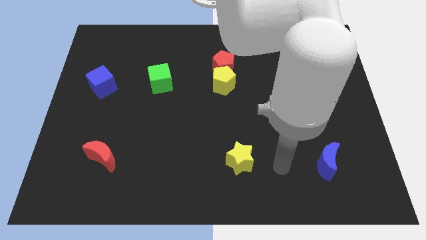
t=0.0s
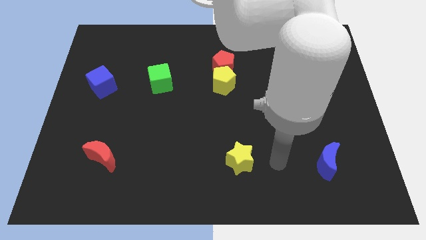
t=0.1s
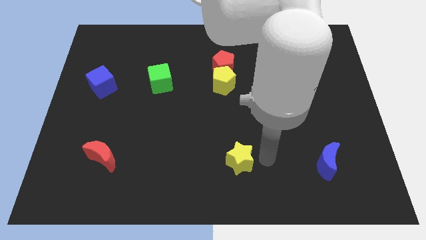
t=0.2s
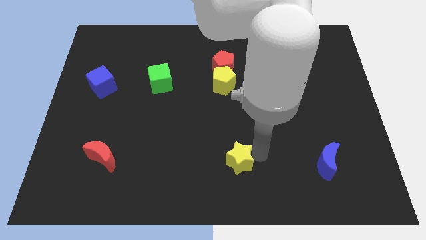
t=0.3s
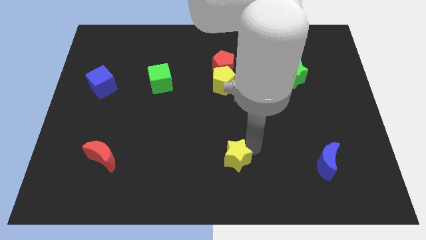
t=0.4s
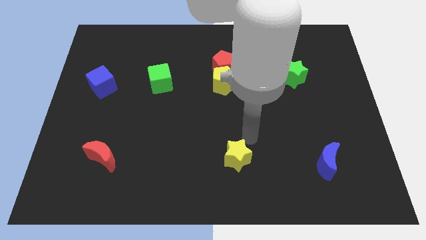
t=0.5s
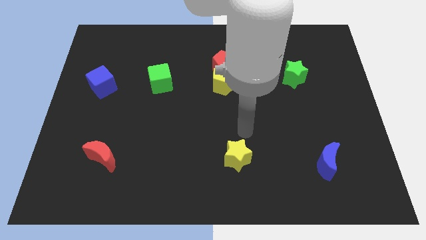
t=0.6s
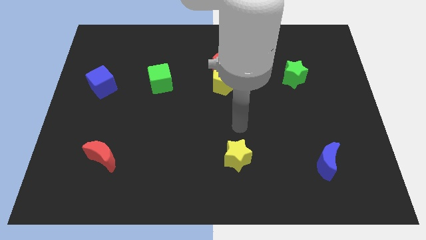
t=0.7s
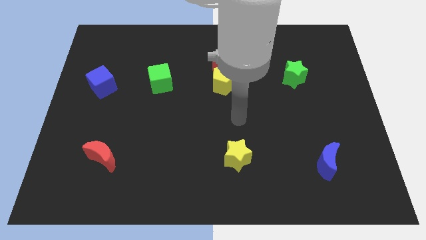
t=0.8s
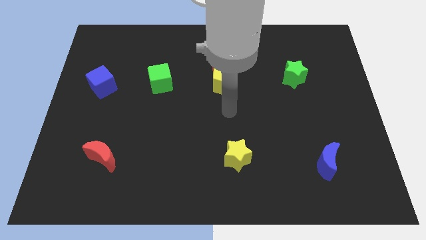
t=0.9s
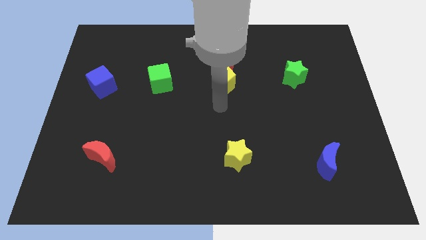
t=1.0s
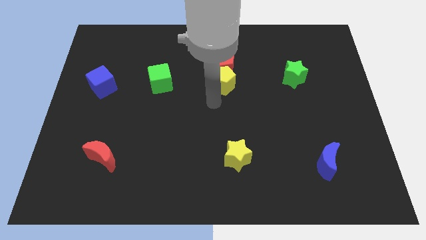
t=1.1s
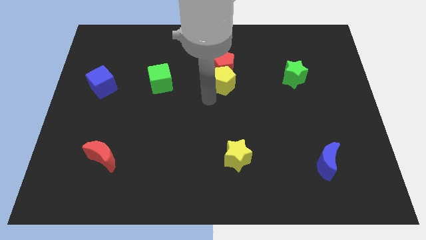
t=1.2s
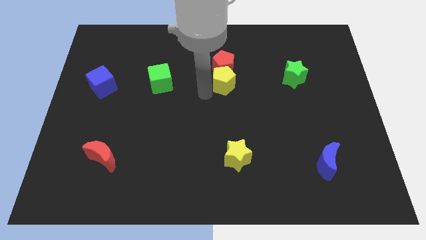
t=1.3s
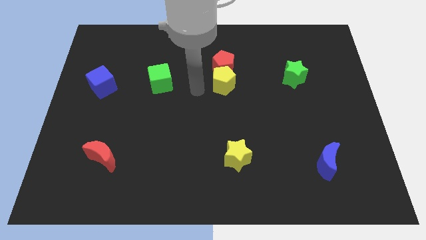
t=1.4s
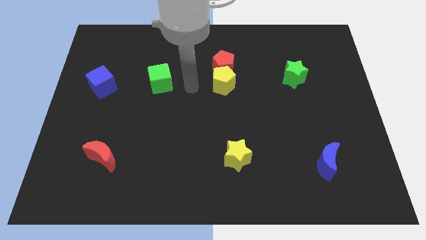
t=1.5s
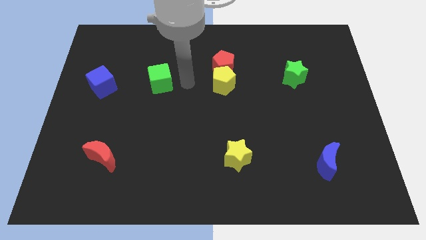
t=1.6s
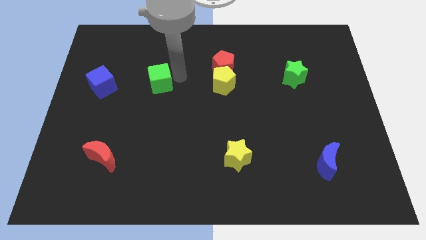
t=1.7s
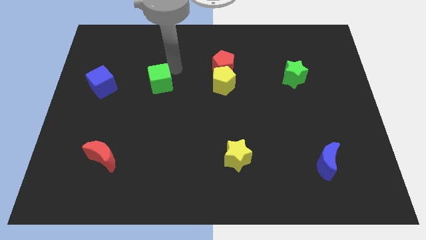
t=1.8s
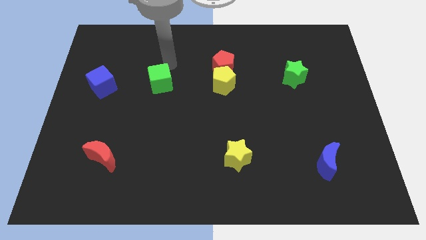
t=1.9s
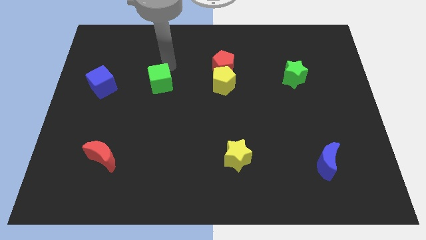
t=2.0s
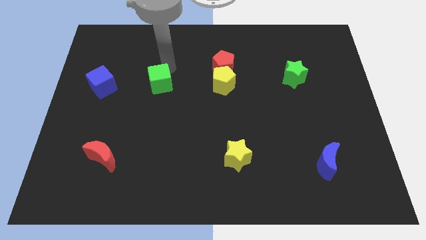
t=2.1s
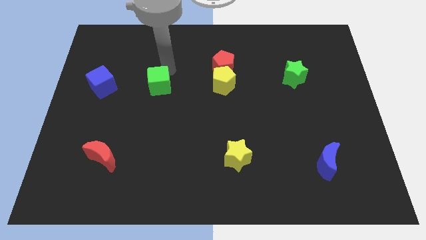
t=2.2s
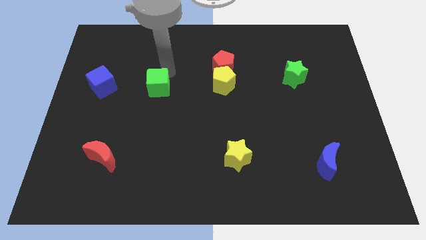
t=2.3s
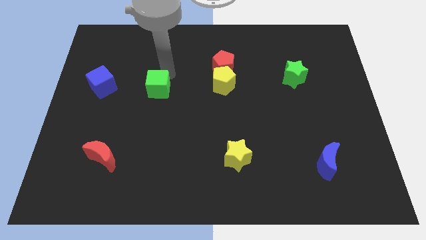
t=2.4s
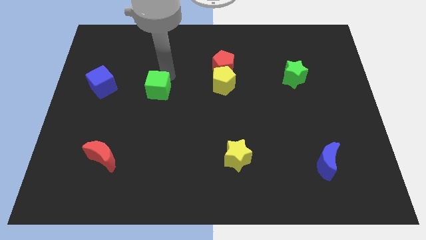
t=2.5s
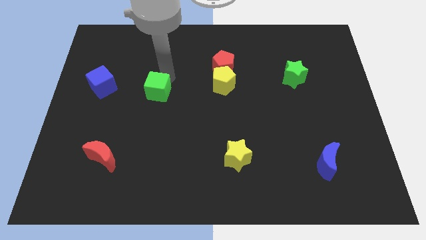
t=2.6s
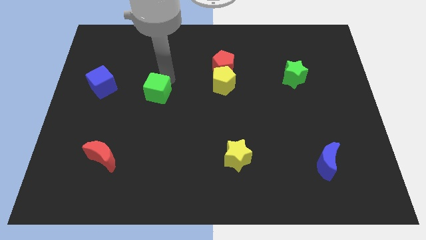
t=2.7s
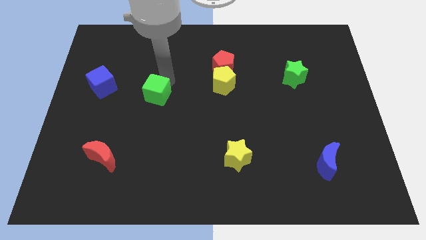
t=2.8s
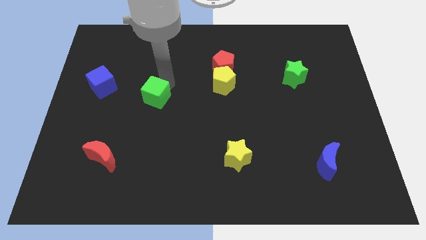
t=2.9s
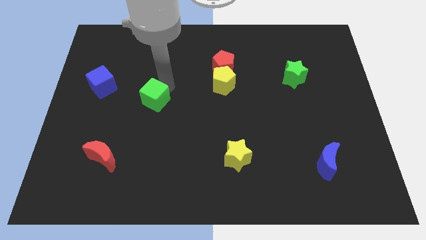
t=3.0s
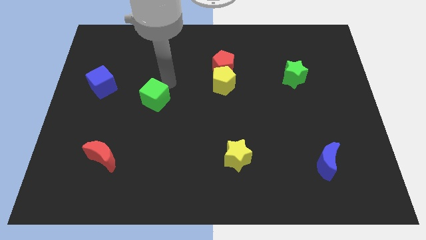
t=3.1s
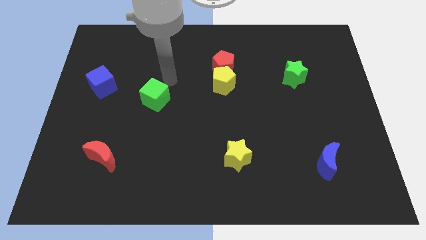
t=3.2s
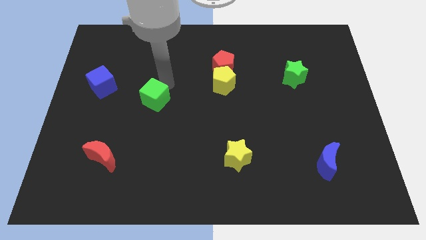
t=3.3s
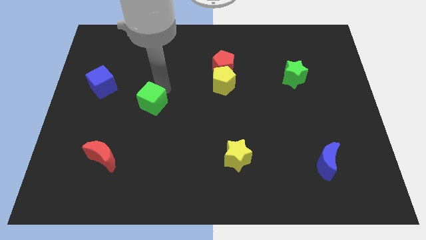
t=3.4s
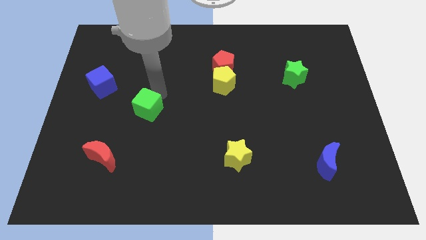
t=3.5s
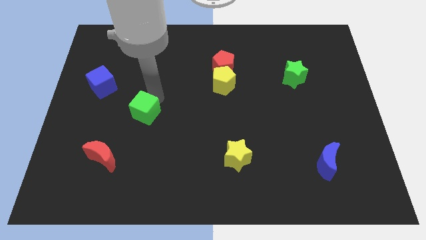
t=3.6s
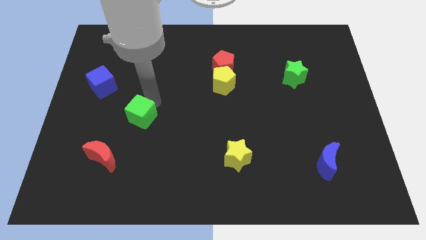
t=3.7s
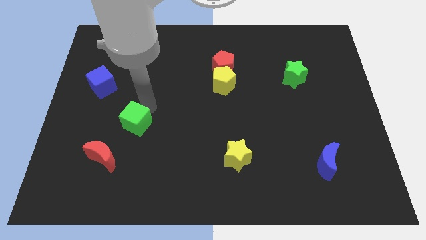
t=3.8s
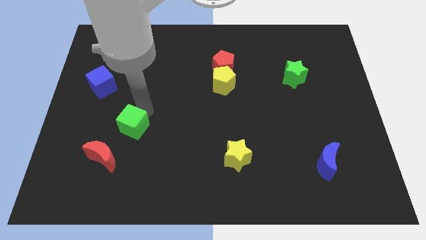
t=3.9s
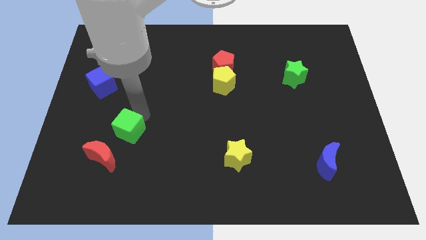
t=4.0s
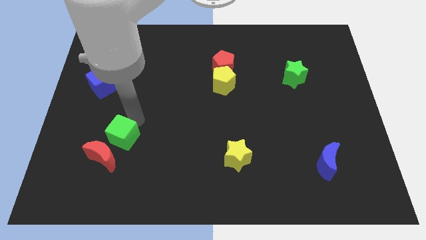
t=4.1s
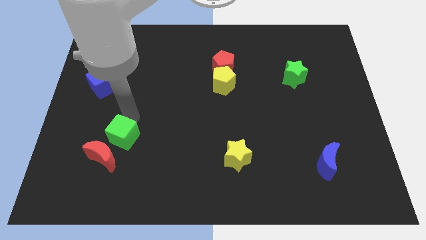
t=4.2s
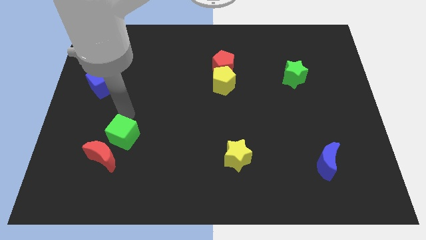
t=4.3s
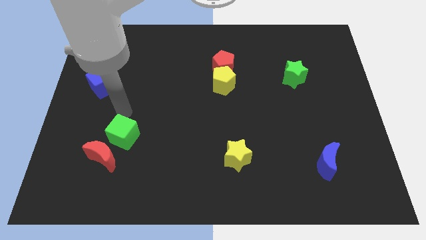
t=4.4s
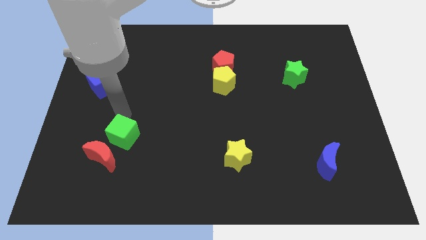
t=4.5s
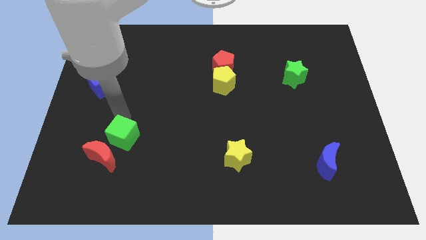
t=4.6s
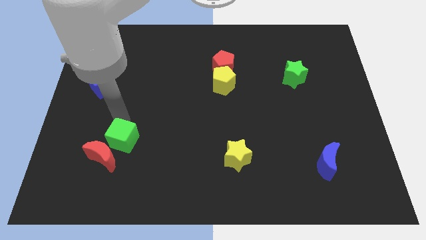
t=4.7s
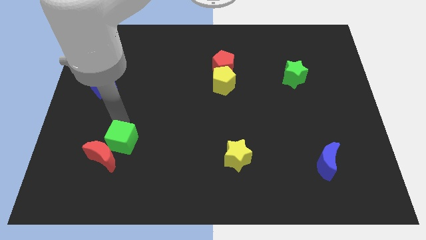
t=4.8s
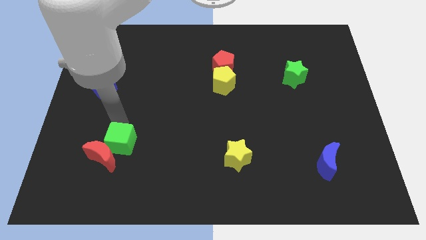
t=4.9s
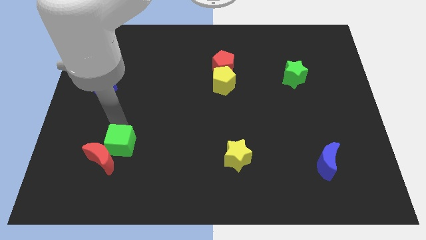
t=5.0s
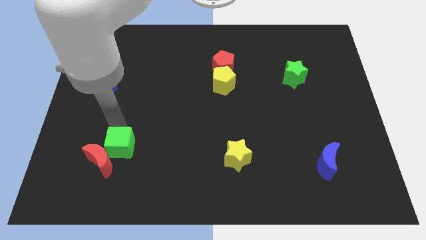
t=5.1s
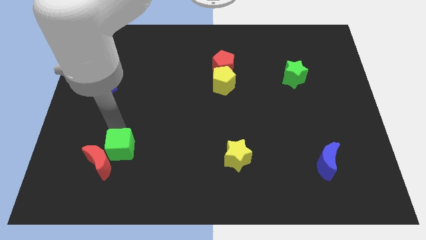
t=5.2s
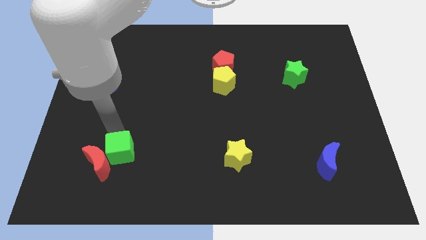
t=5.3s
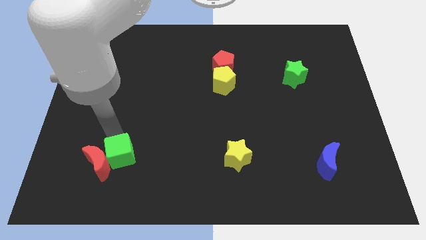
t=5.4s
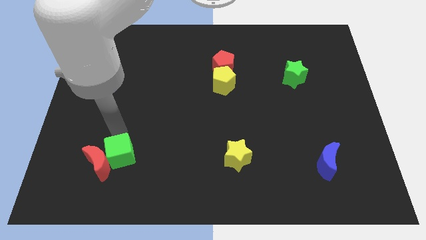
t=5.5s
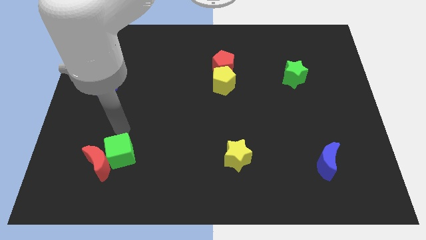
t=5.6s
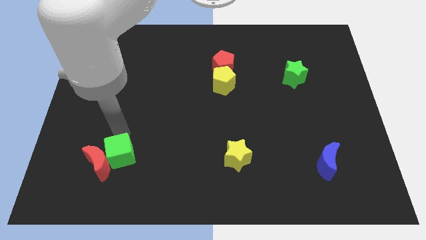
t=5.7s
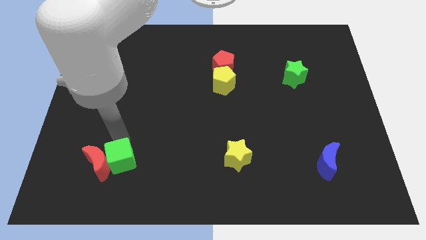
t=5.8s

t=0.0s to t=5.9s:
slide the green cube diagonally down and to the right of the red moon

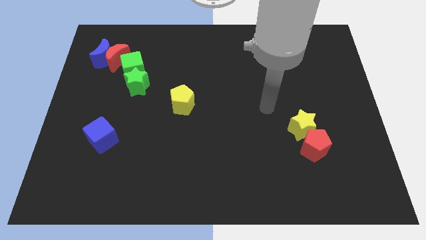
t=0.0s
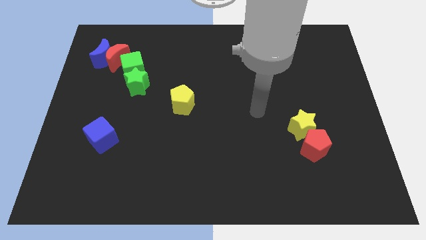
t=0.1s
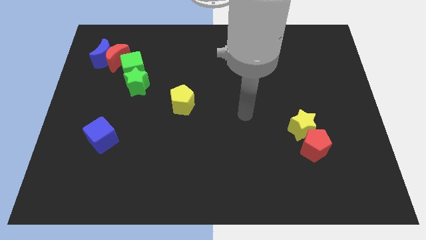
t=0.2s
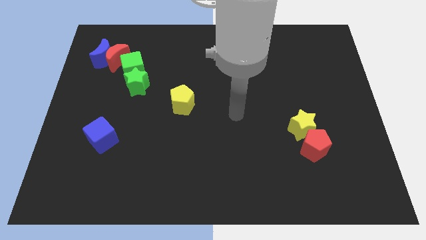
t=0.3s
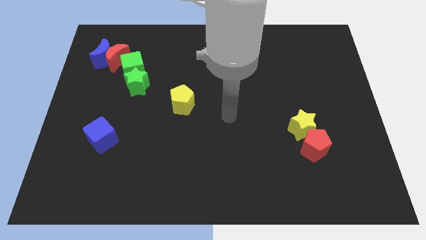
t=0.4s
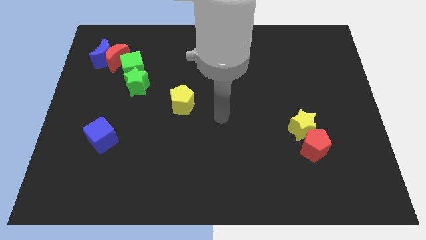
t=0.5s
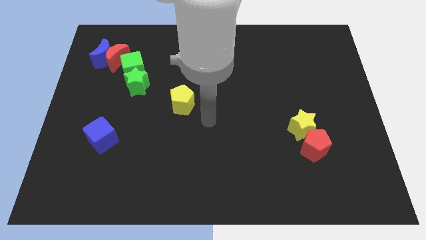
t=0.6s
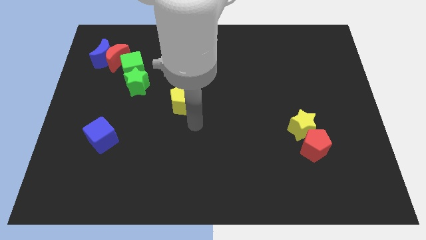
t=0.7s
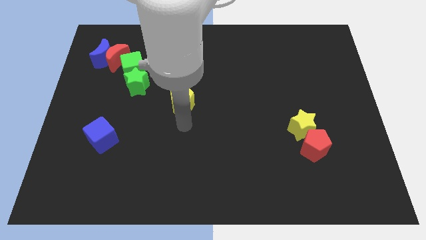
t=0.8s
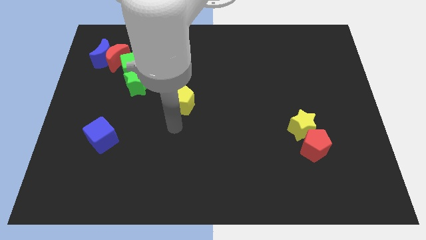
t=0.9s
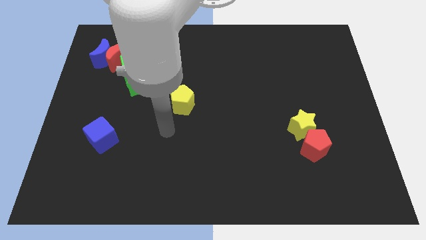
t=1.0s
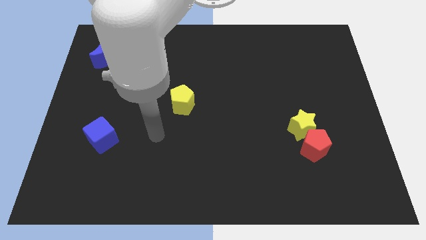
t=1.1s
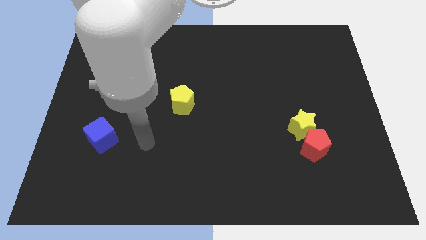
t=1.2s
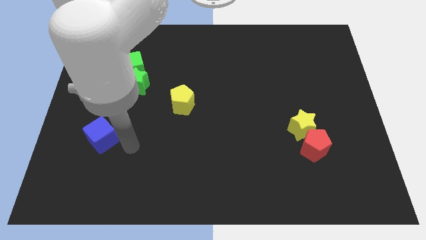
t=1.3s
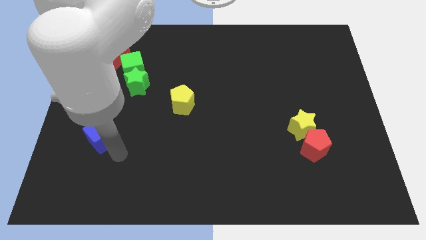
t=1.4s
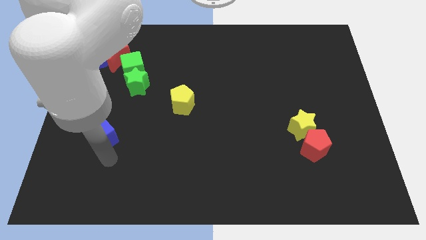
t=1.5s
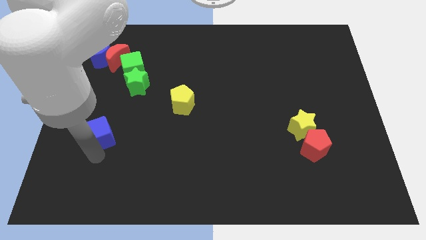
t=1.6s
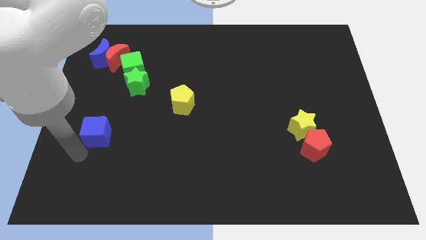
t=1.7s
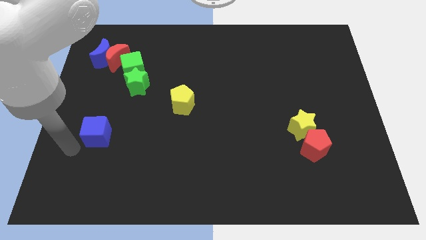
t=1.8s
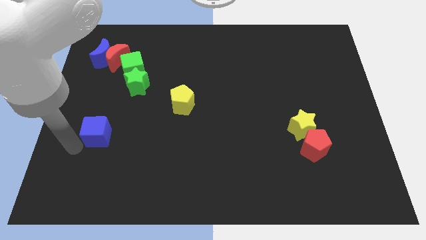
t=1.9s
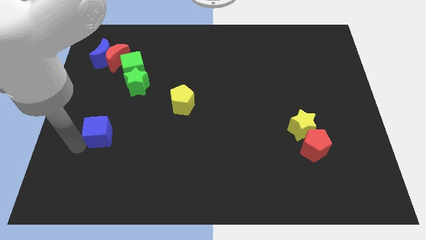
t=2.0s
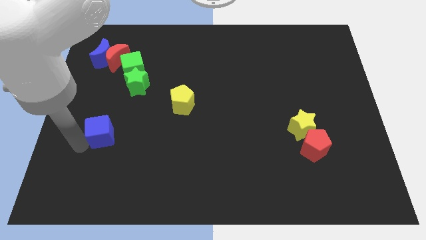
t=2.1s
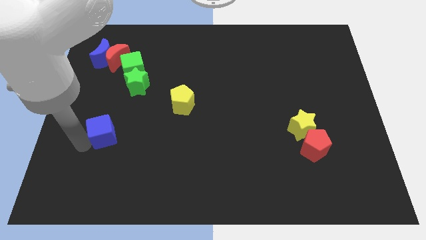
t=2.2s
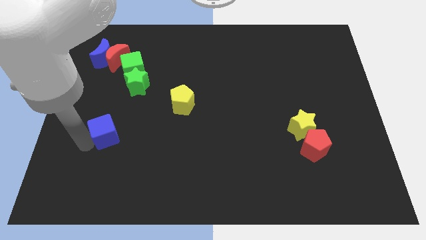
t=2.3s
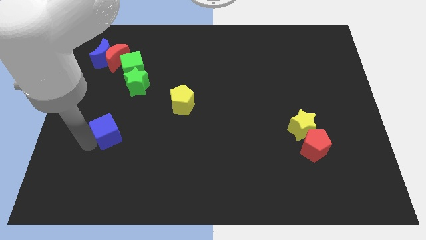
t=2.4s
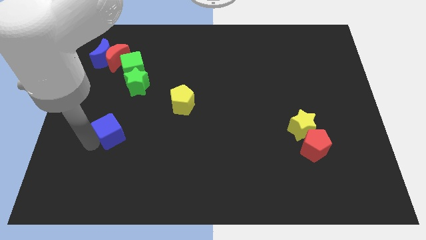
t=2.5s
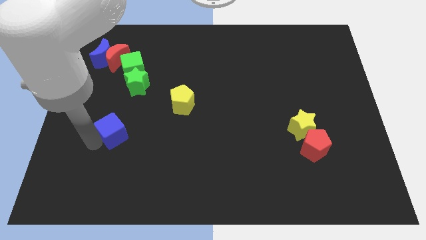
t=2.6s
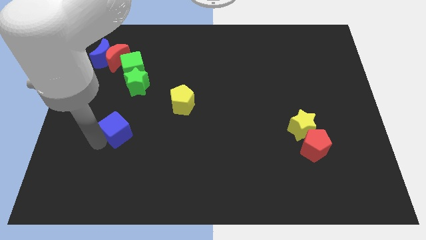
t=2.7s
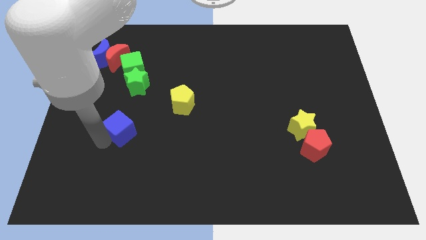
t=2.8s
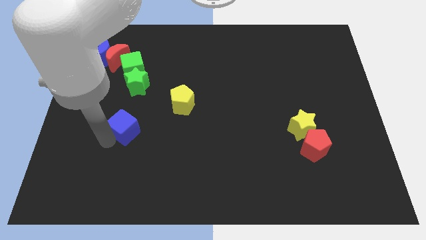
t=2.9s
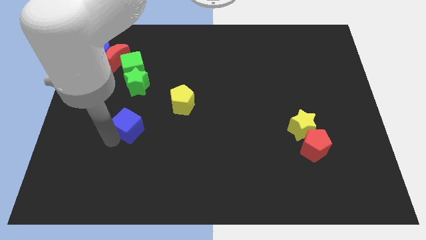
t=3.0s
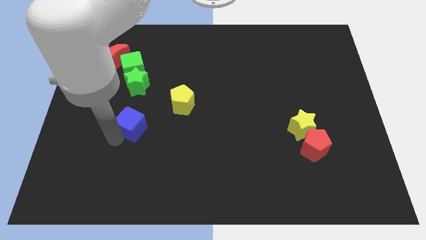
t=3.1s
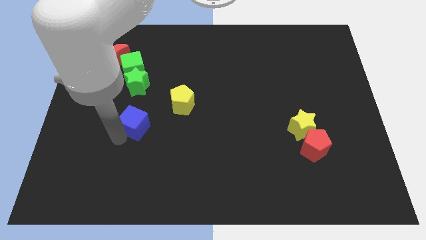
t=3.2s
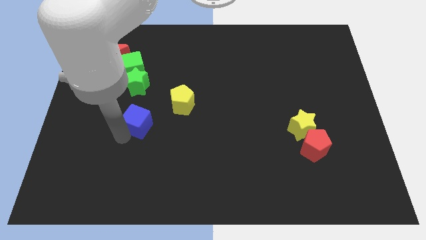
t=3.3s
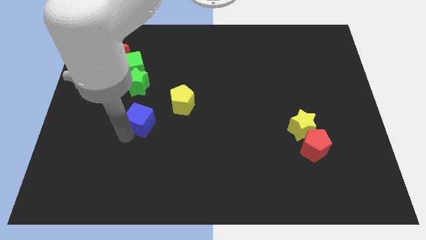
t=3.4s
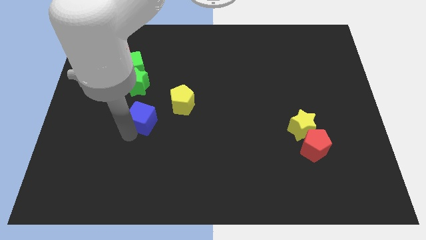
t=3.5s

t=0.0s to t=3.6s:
move the blue cube to the left of the yellow pentagon
